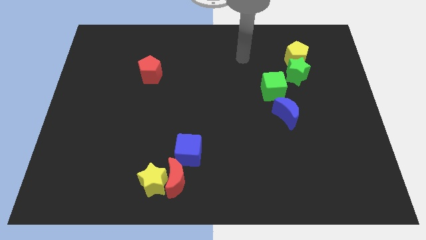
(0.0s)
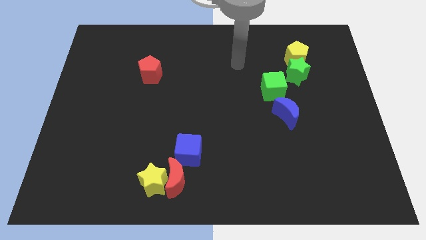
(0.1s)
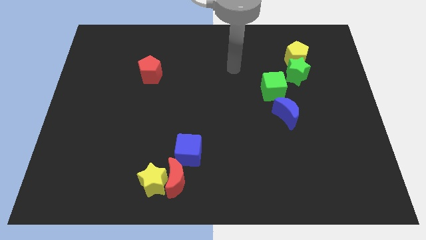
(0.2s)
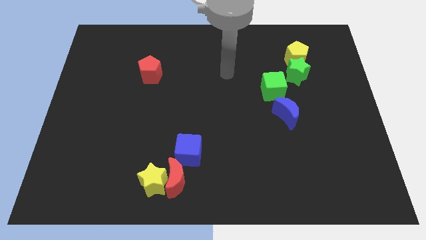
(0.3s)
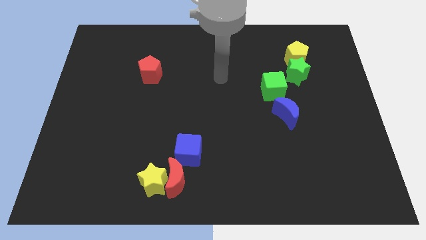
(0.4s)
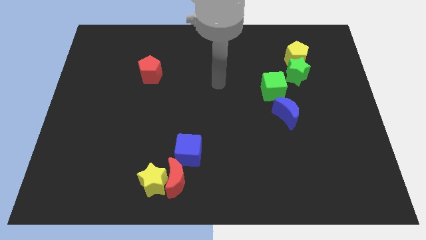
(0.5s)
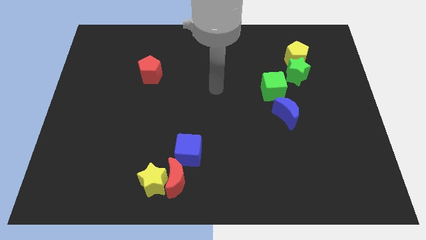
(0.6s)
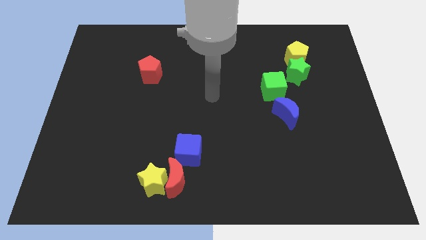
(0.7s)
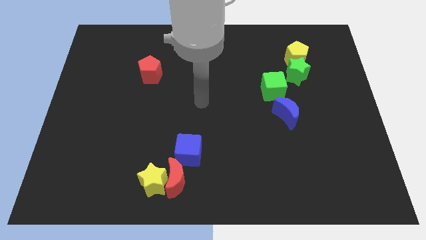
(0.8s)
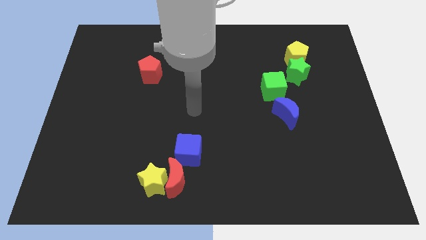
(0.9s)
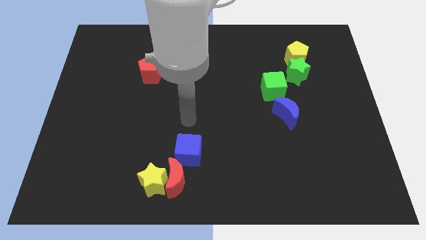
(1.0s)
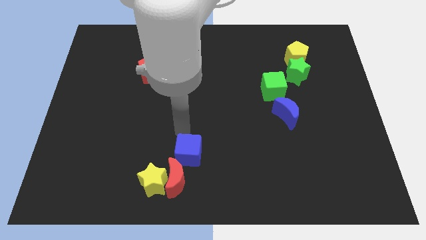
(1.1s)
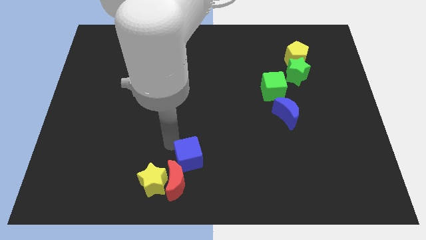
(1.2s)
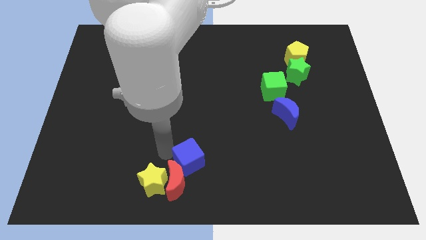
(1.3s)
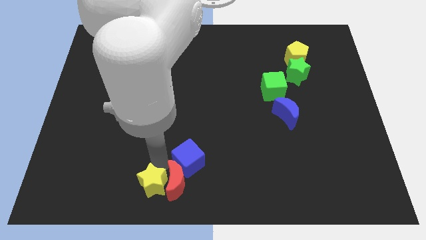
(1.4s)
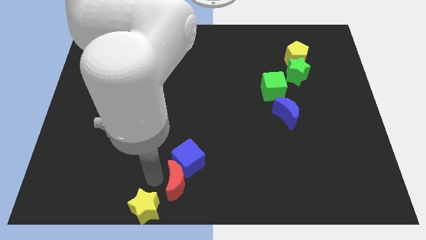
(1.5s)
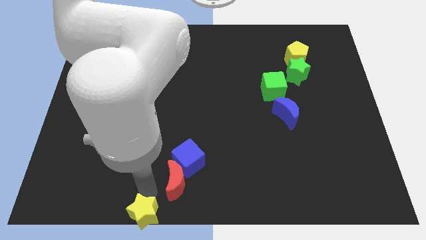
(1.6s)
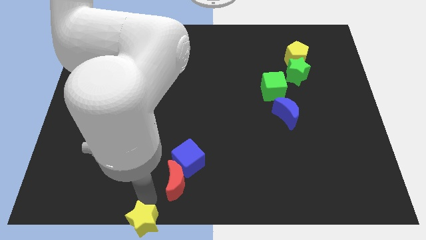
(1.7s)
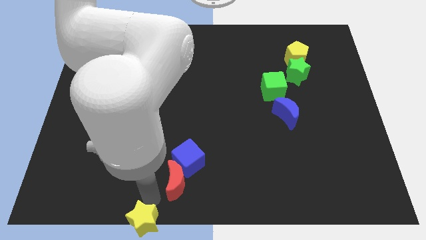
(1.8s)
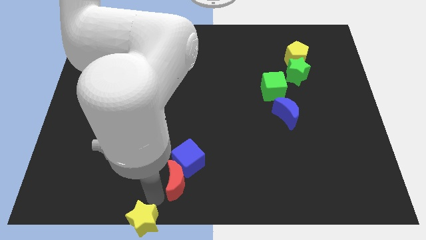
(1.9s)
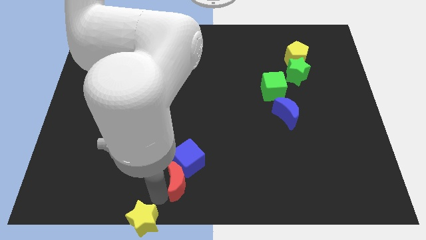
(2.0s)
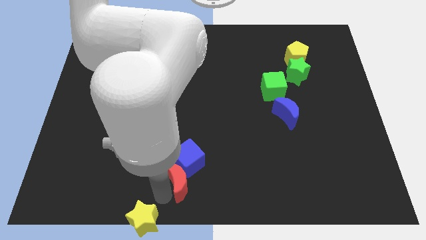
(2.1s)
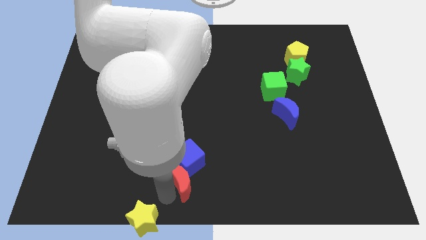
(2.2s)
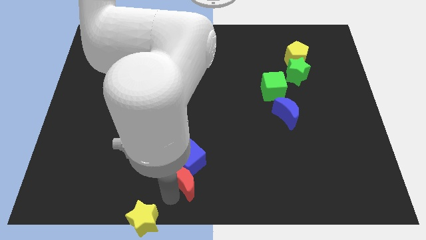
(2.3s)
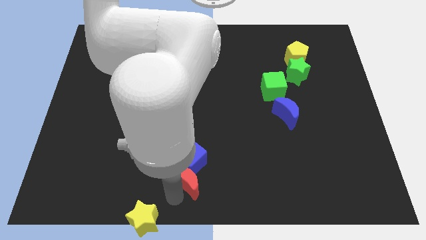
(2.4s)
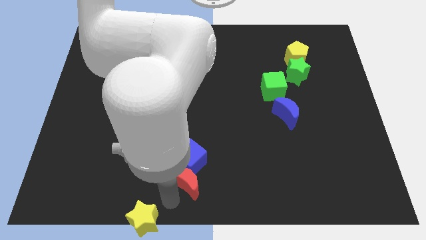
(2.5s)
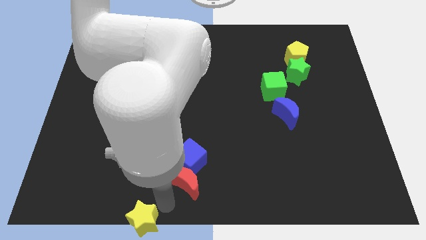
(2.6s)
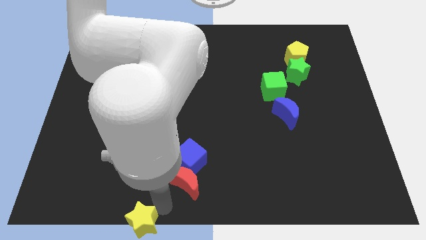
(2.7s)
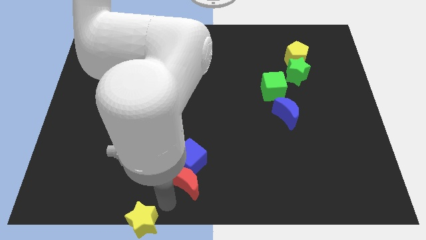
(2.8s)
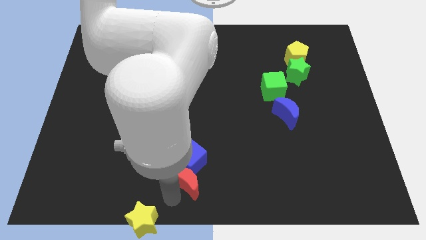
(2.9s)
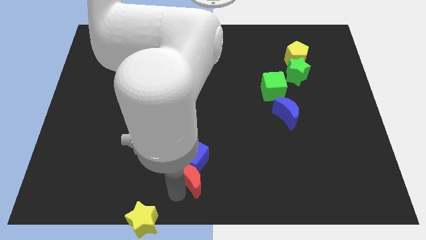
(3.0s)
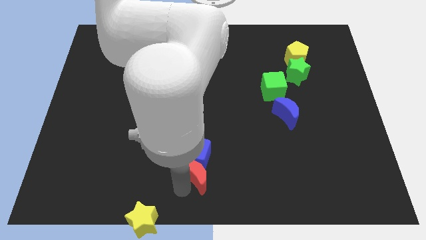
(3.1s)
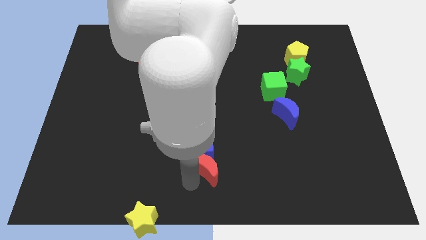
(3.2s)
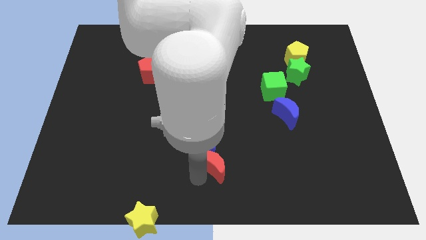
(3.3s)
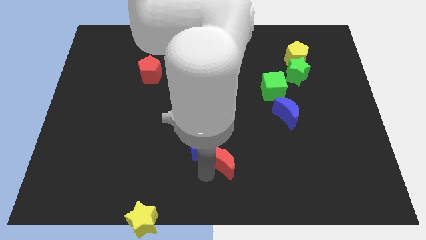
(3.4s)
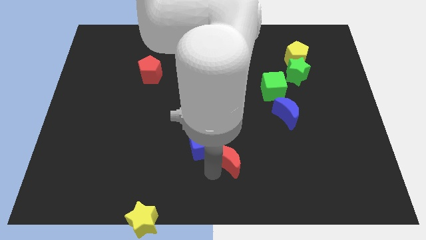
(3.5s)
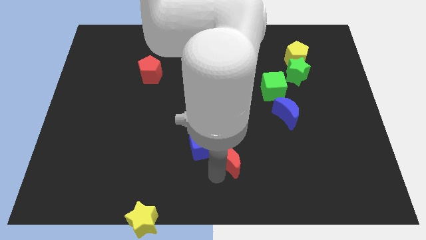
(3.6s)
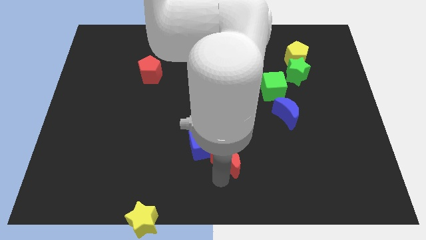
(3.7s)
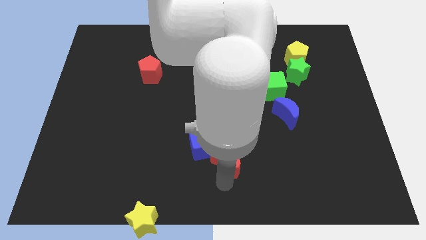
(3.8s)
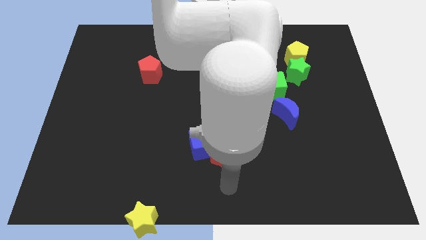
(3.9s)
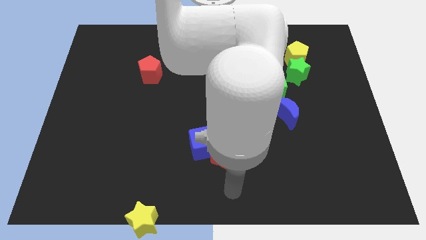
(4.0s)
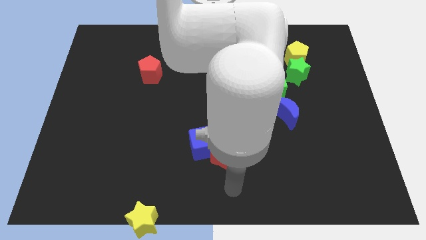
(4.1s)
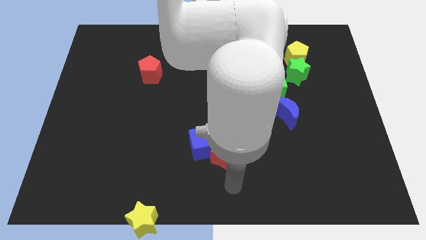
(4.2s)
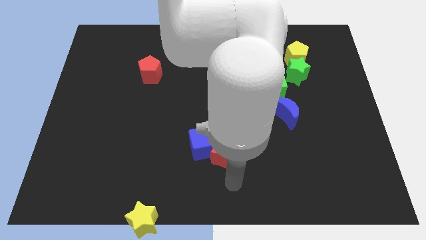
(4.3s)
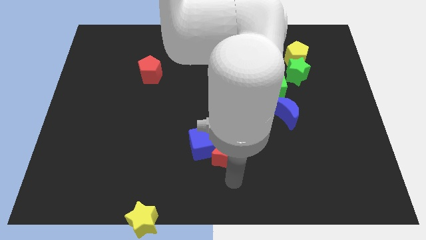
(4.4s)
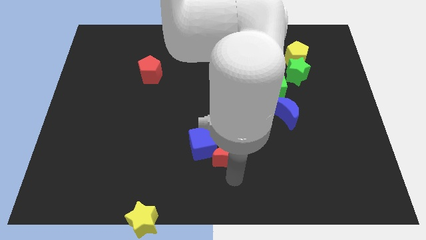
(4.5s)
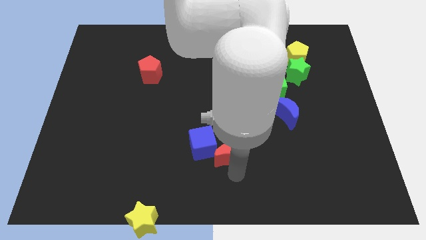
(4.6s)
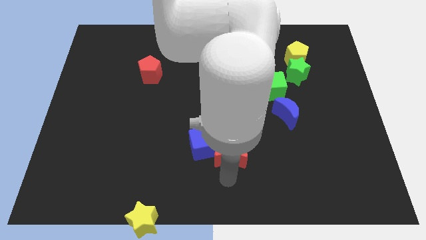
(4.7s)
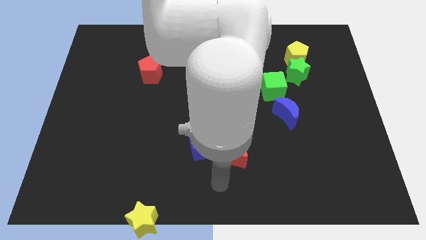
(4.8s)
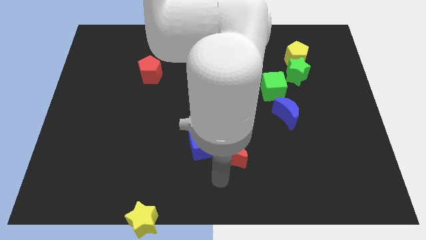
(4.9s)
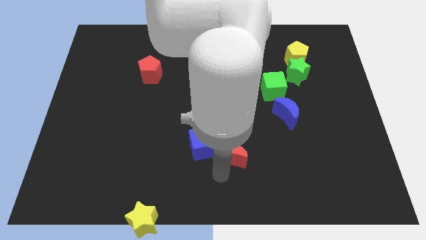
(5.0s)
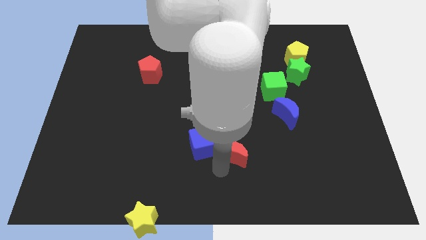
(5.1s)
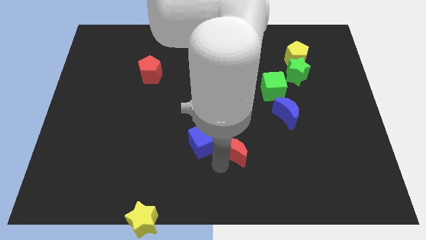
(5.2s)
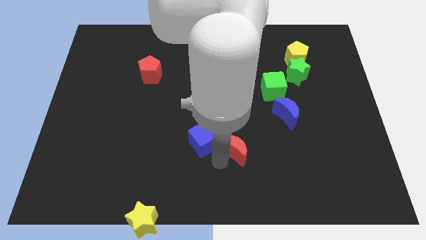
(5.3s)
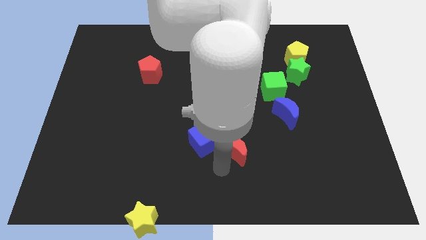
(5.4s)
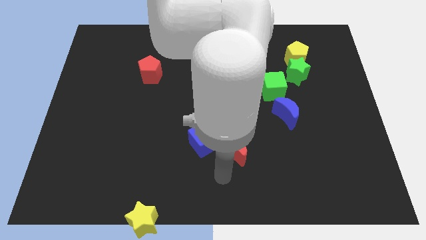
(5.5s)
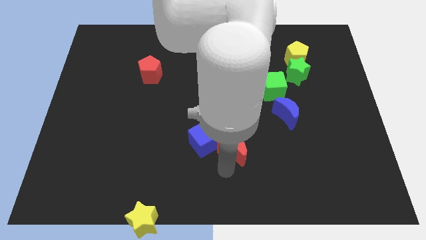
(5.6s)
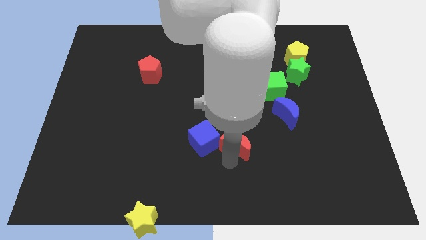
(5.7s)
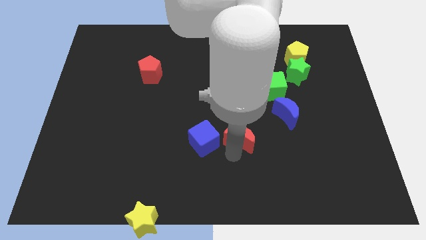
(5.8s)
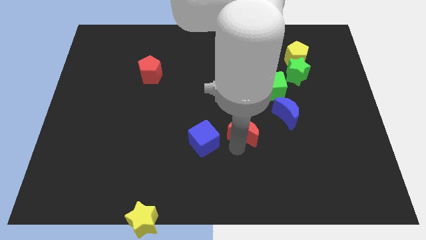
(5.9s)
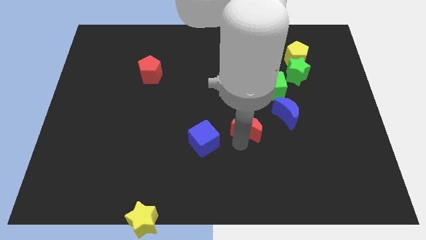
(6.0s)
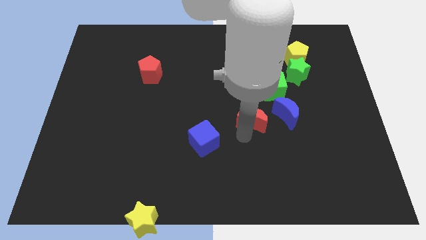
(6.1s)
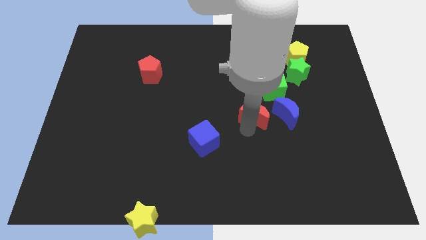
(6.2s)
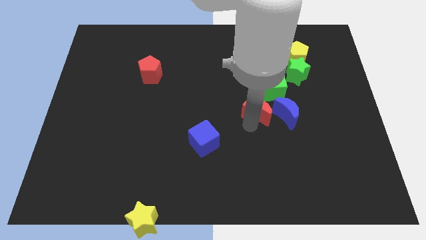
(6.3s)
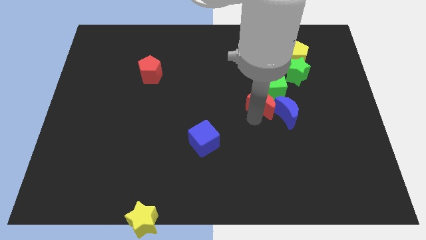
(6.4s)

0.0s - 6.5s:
put the red moon next to the green cube
